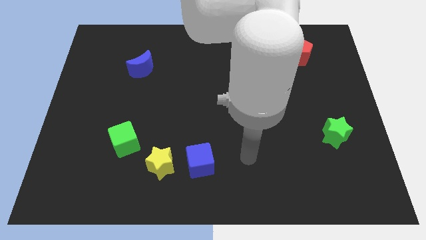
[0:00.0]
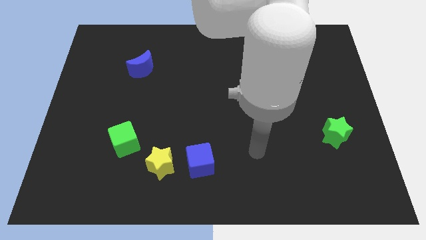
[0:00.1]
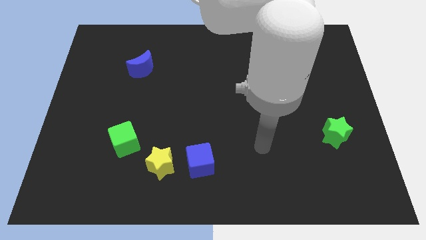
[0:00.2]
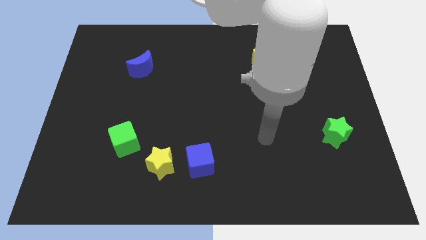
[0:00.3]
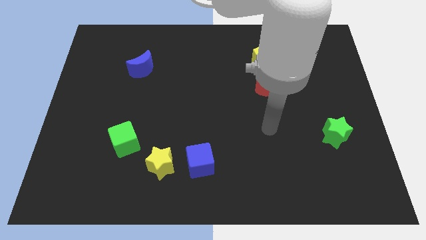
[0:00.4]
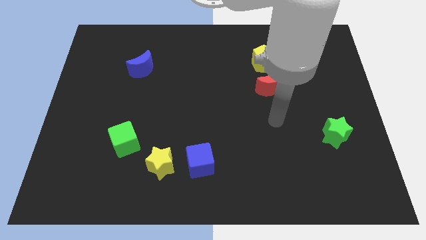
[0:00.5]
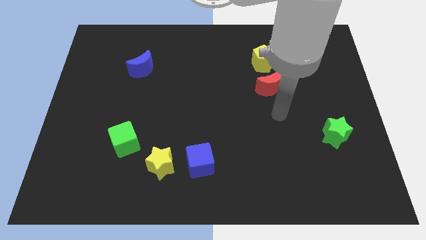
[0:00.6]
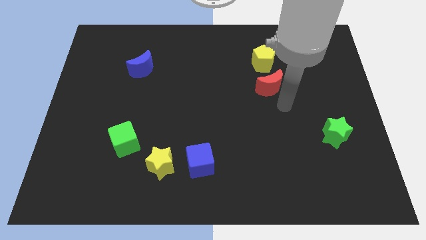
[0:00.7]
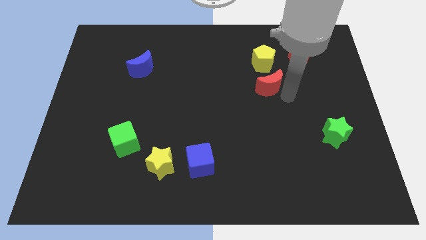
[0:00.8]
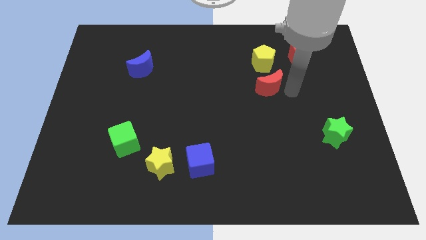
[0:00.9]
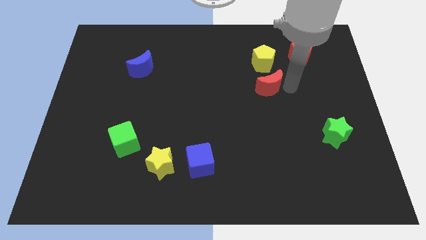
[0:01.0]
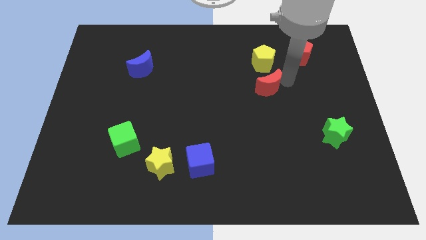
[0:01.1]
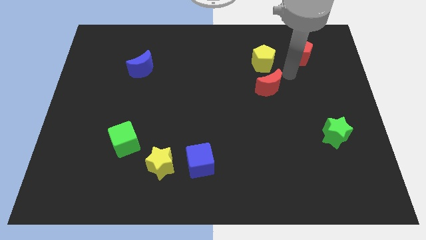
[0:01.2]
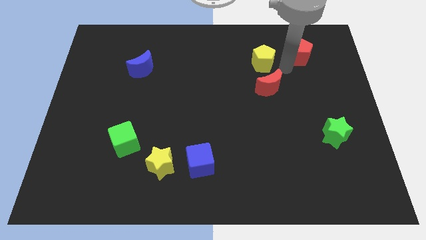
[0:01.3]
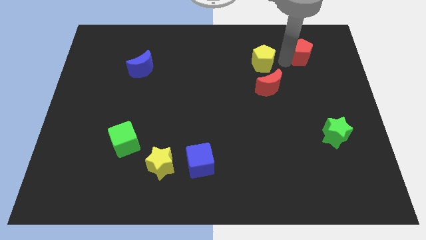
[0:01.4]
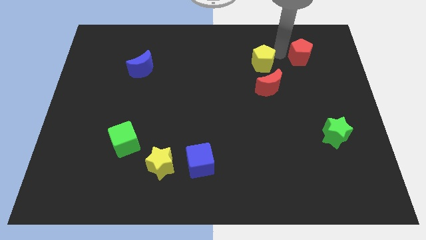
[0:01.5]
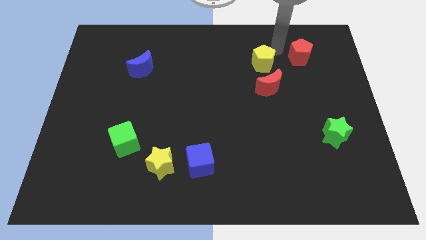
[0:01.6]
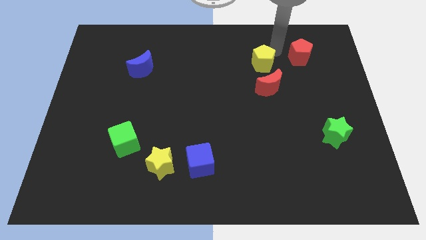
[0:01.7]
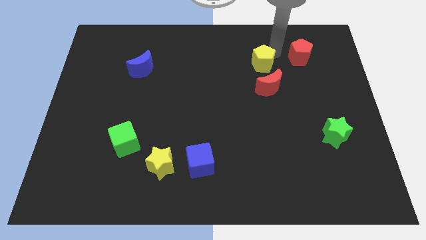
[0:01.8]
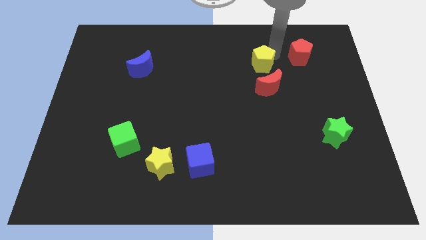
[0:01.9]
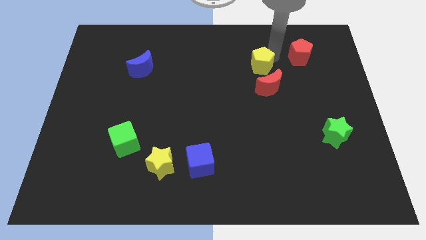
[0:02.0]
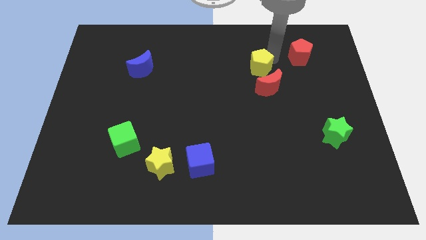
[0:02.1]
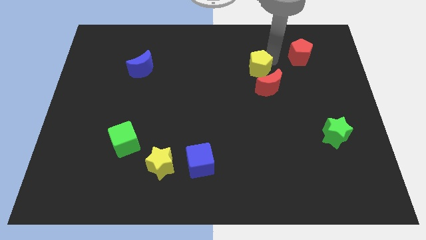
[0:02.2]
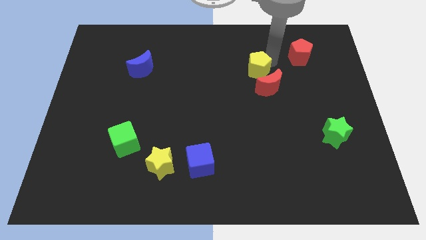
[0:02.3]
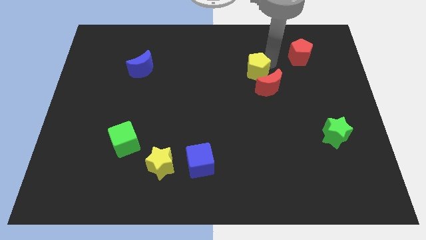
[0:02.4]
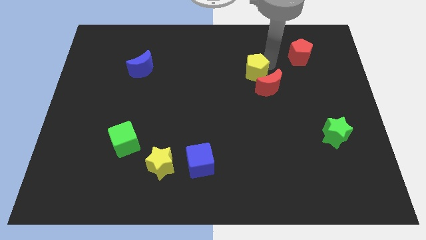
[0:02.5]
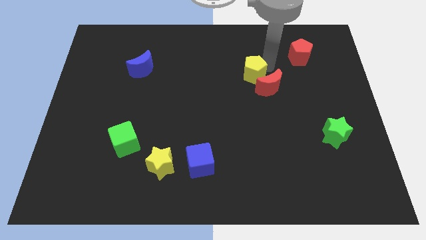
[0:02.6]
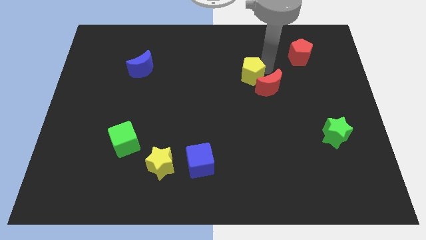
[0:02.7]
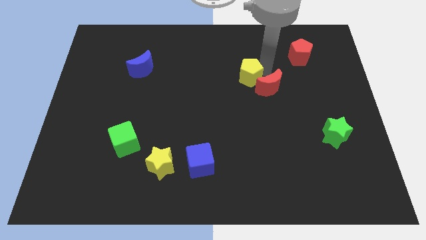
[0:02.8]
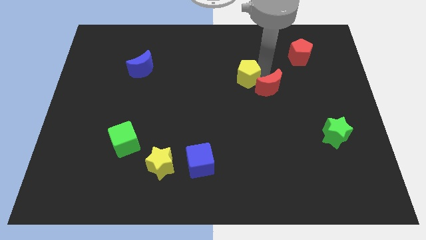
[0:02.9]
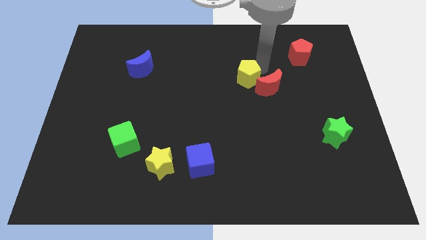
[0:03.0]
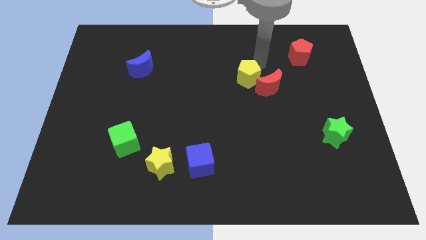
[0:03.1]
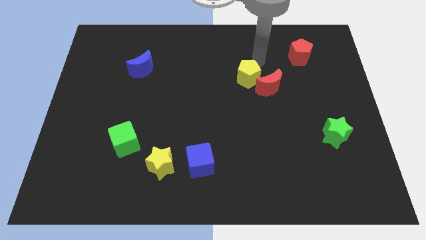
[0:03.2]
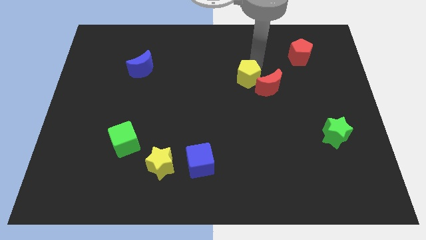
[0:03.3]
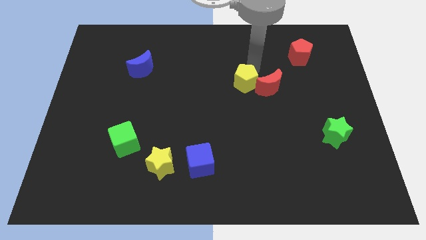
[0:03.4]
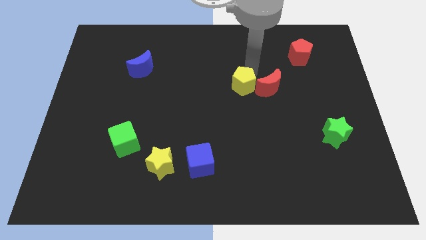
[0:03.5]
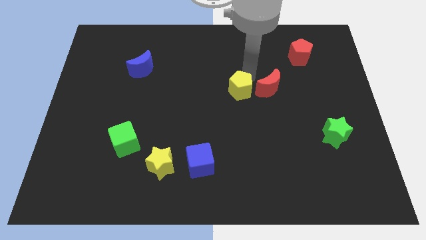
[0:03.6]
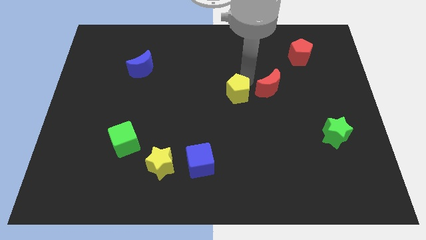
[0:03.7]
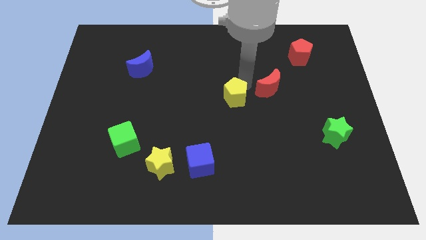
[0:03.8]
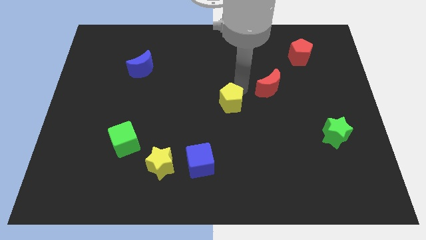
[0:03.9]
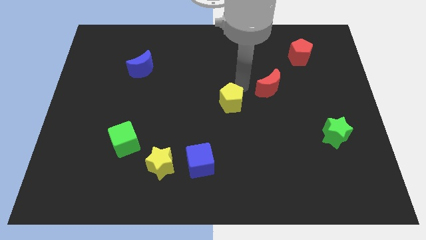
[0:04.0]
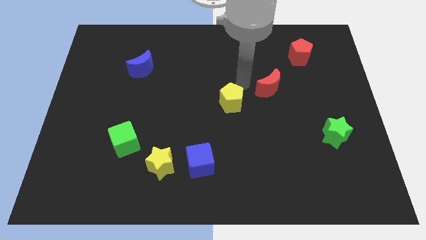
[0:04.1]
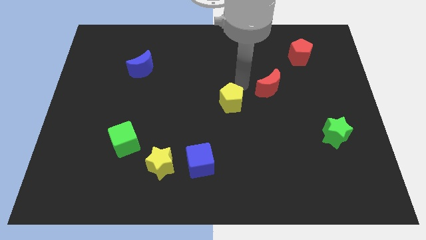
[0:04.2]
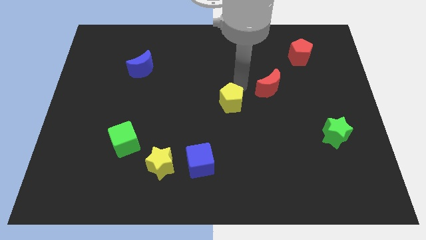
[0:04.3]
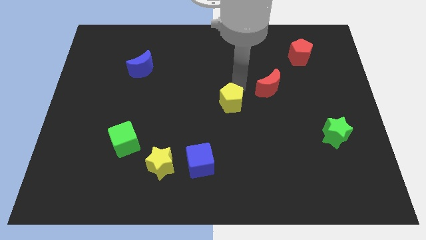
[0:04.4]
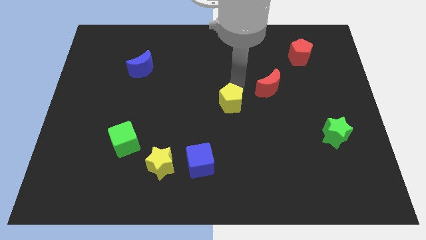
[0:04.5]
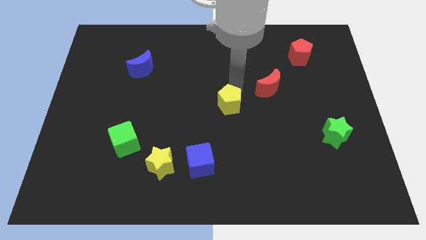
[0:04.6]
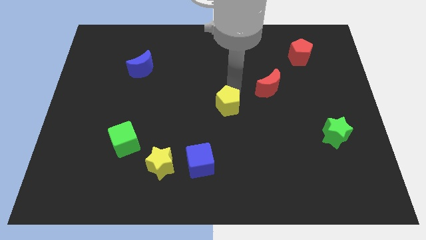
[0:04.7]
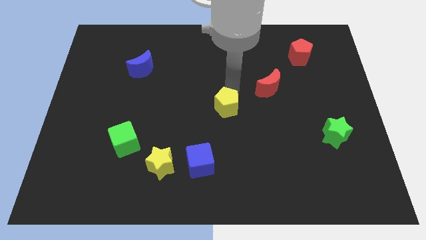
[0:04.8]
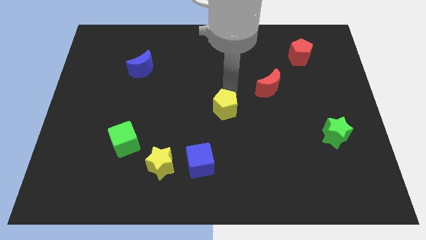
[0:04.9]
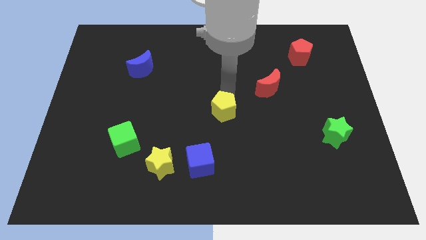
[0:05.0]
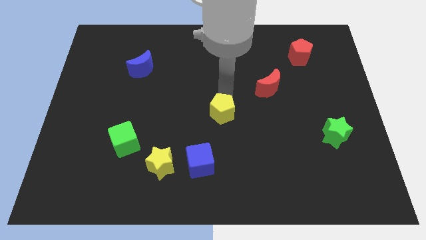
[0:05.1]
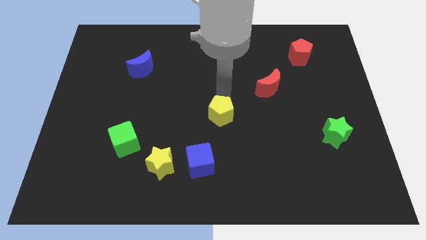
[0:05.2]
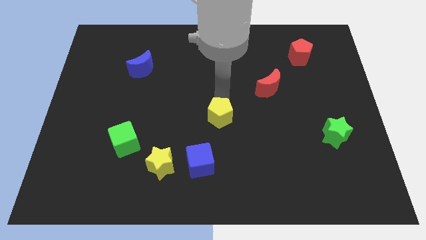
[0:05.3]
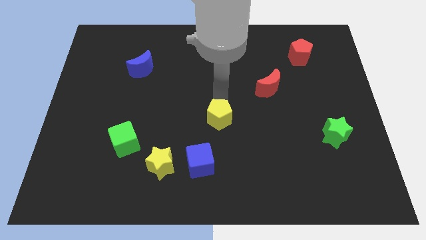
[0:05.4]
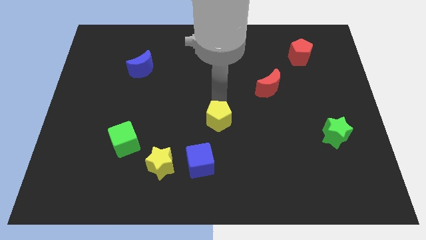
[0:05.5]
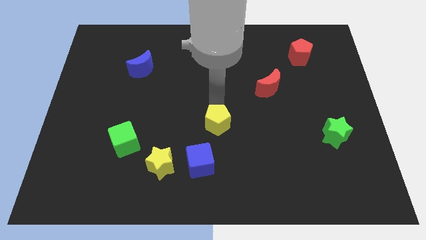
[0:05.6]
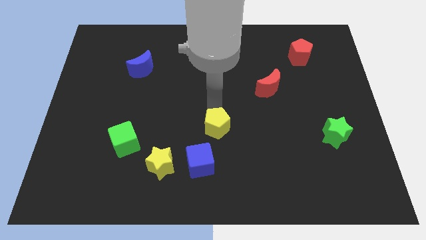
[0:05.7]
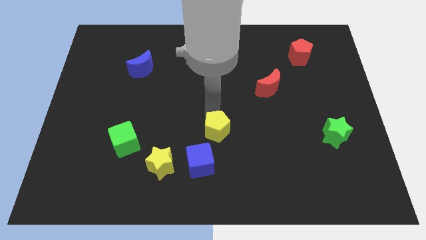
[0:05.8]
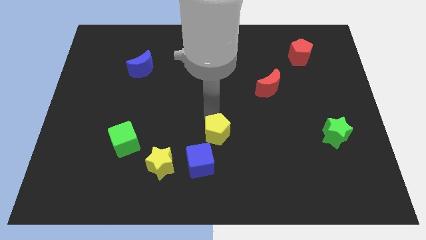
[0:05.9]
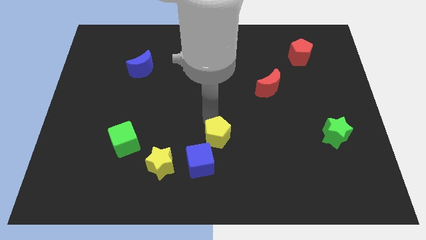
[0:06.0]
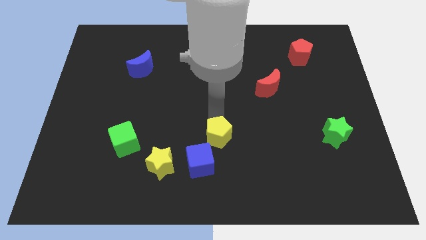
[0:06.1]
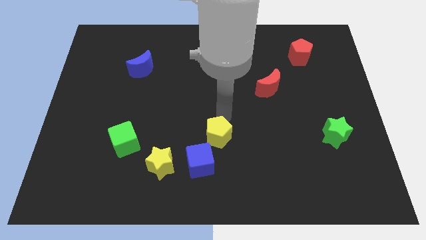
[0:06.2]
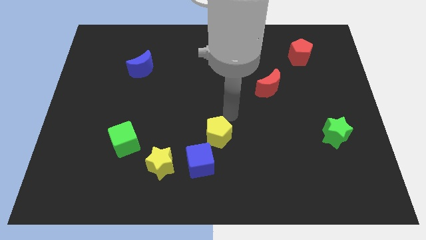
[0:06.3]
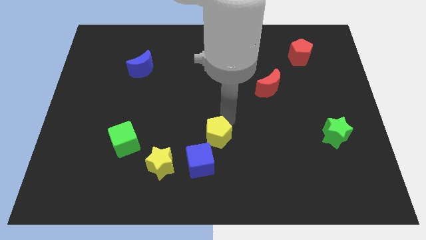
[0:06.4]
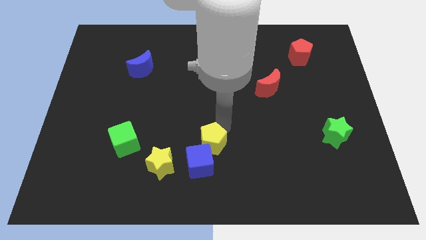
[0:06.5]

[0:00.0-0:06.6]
move the yellow pentagon close to the blue cube
